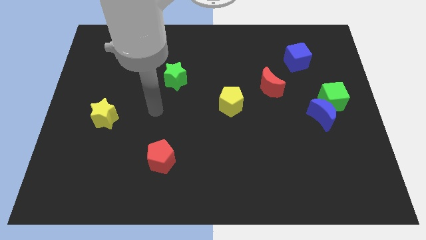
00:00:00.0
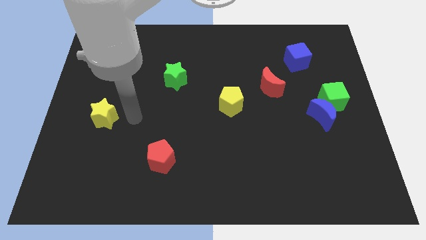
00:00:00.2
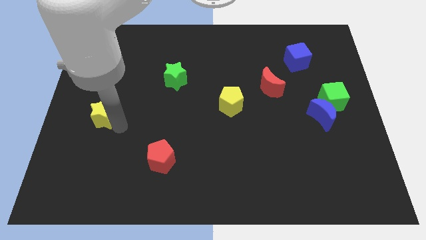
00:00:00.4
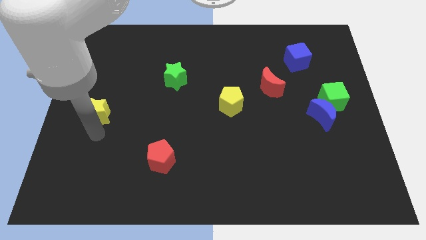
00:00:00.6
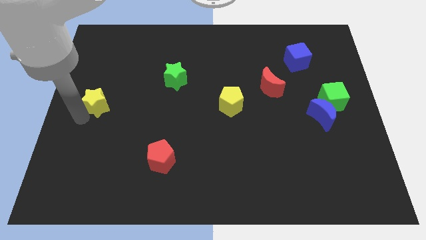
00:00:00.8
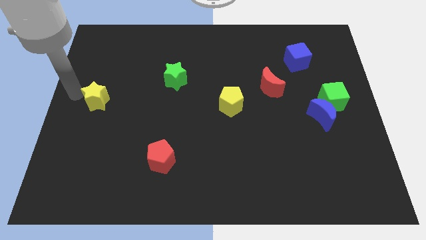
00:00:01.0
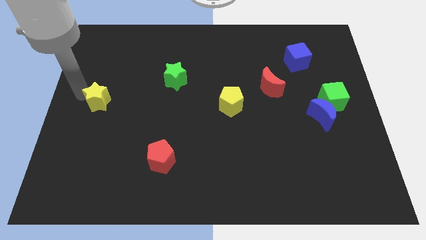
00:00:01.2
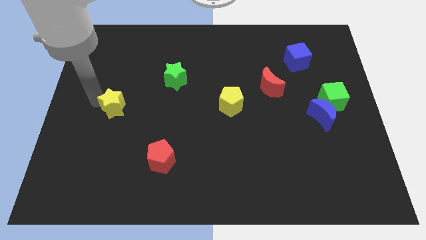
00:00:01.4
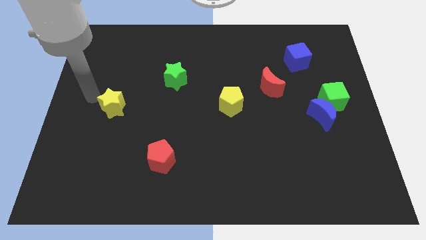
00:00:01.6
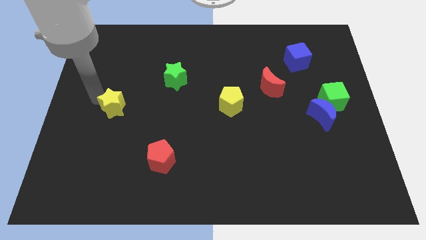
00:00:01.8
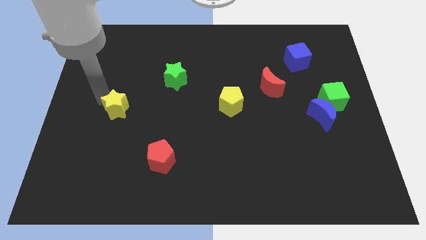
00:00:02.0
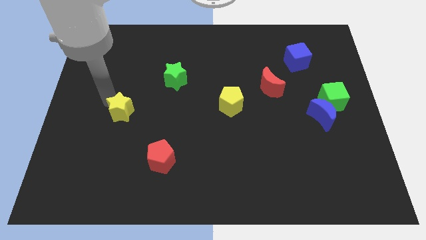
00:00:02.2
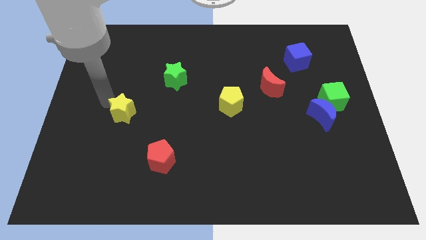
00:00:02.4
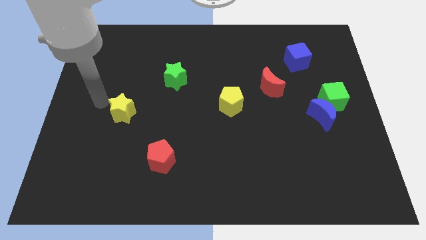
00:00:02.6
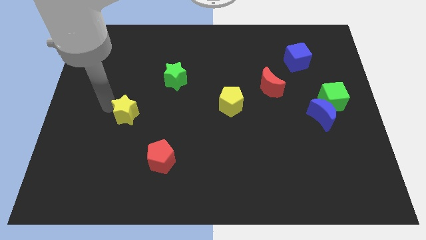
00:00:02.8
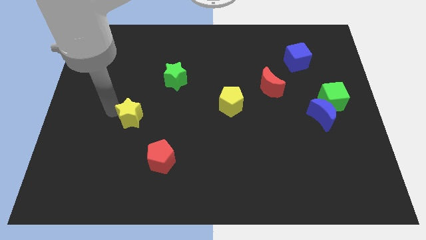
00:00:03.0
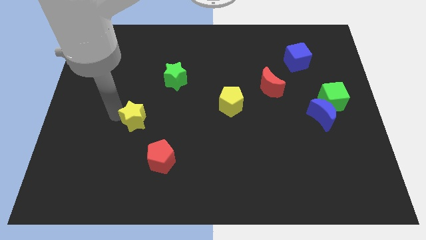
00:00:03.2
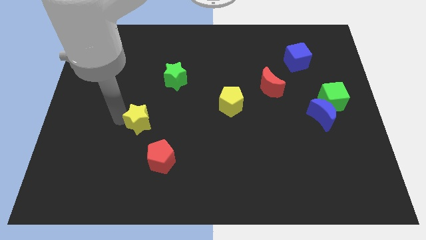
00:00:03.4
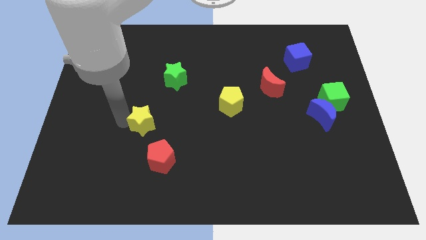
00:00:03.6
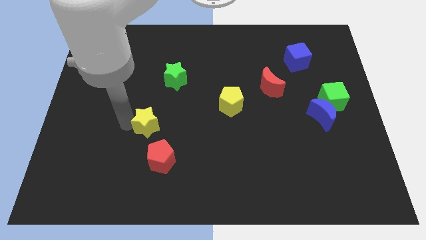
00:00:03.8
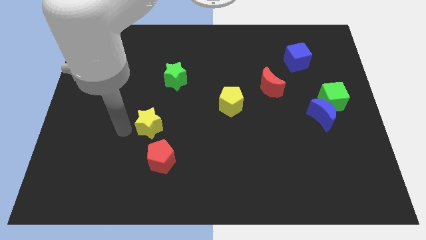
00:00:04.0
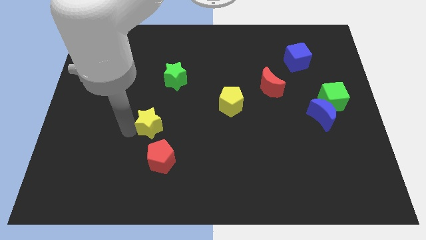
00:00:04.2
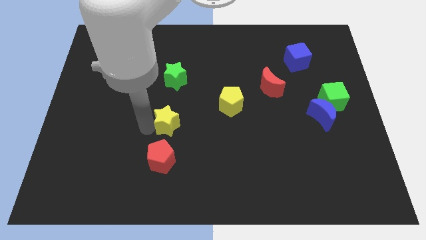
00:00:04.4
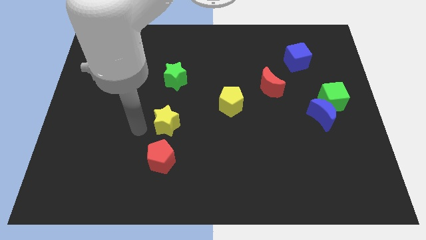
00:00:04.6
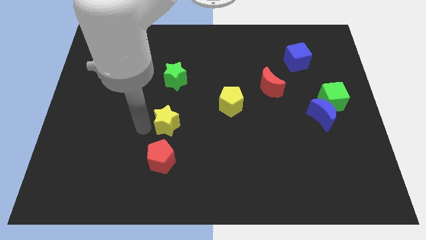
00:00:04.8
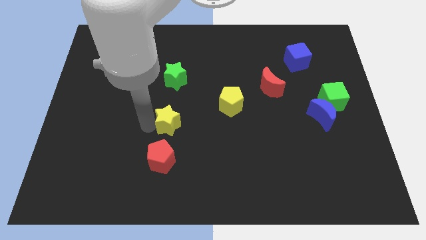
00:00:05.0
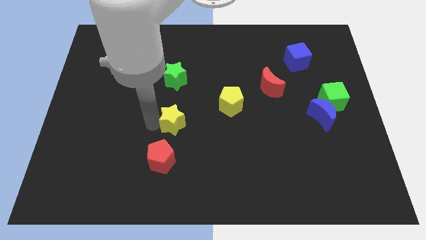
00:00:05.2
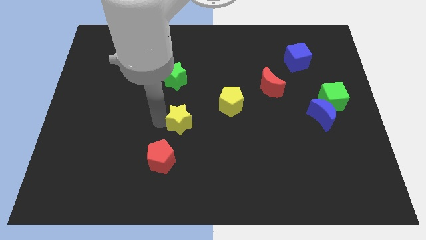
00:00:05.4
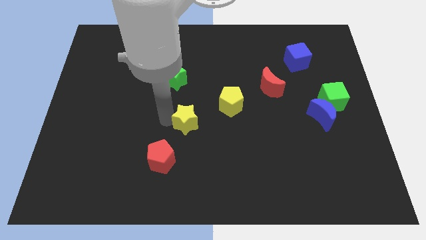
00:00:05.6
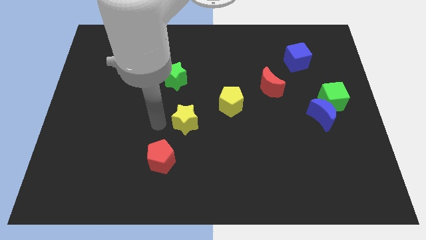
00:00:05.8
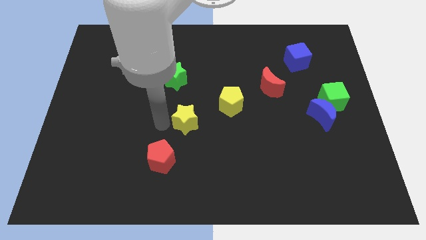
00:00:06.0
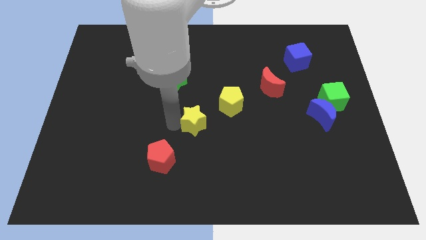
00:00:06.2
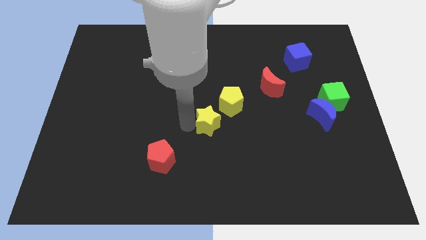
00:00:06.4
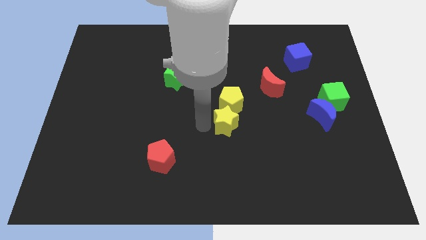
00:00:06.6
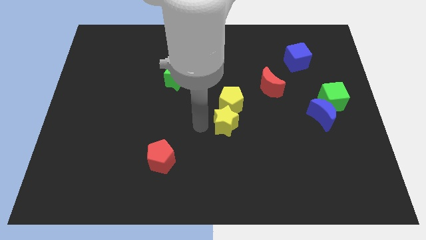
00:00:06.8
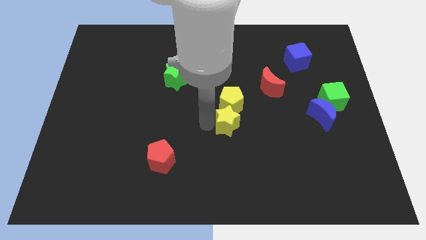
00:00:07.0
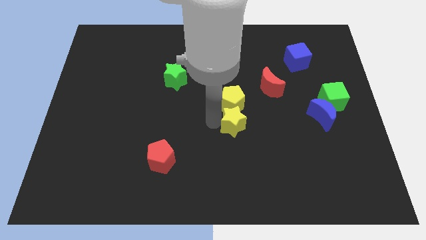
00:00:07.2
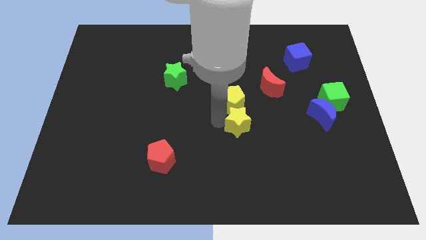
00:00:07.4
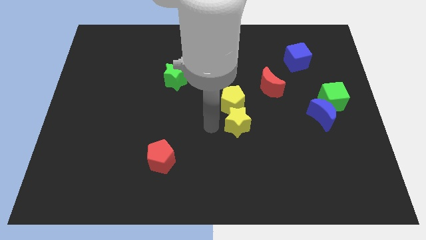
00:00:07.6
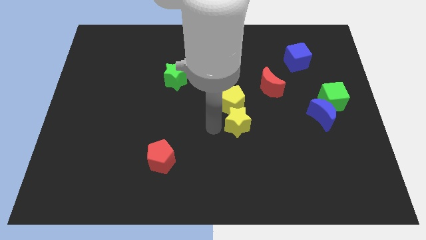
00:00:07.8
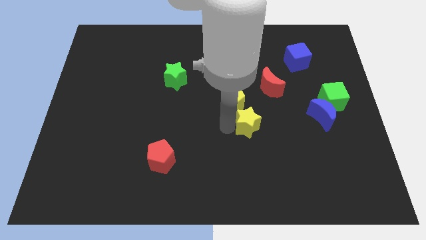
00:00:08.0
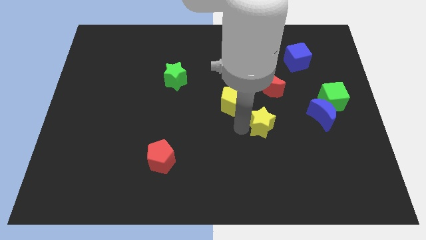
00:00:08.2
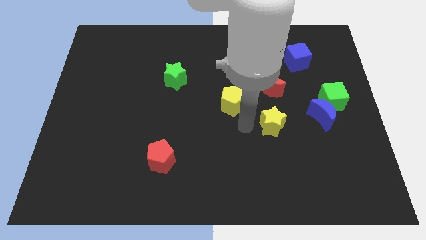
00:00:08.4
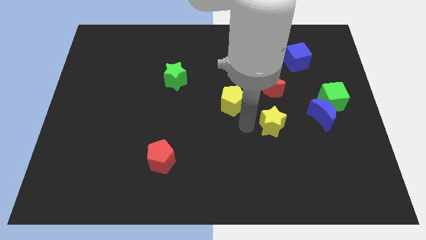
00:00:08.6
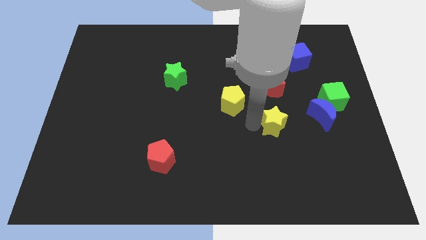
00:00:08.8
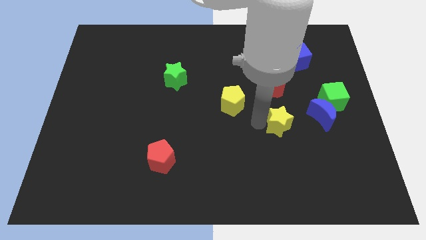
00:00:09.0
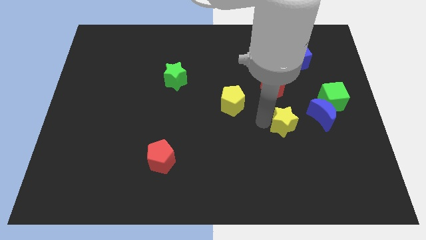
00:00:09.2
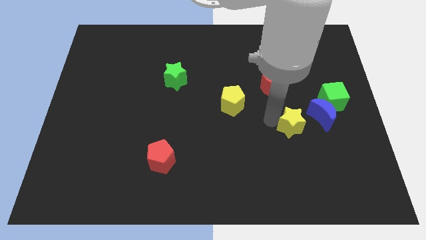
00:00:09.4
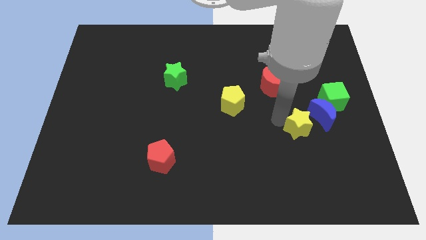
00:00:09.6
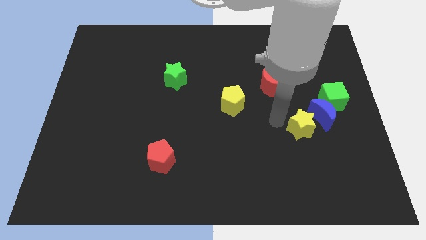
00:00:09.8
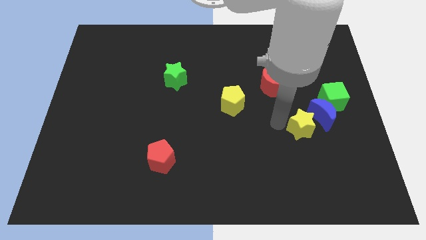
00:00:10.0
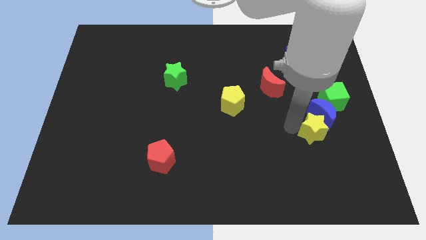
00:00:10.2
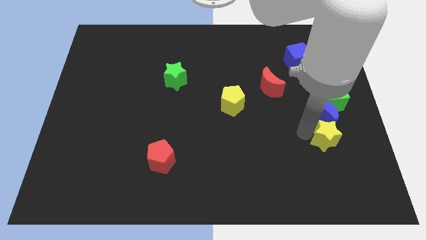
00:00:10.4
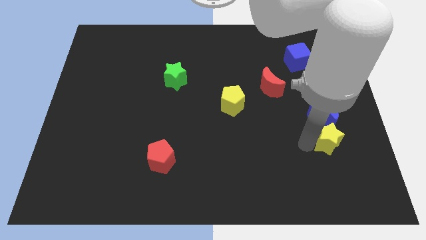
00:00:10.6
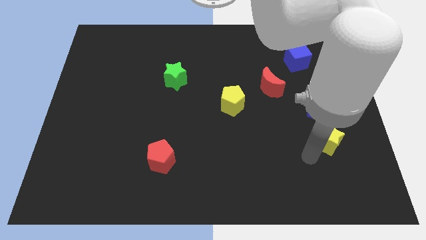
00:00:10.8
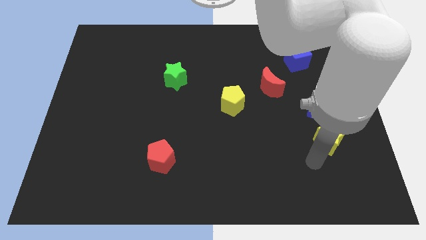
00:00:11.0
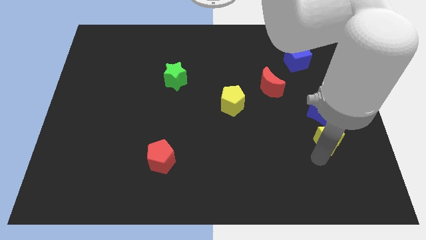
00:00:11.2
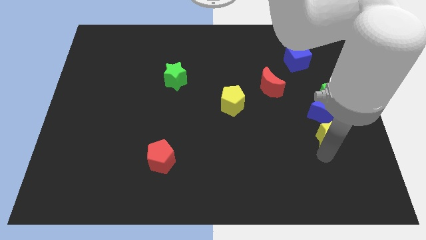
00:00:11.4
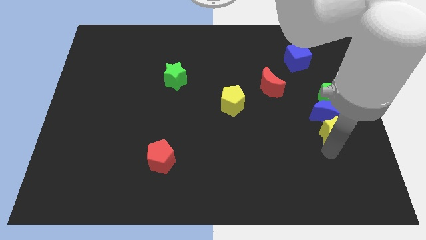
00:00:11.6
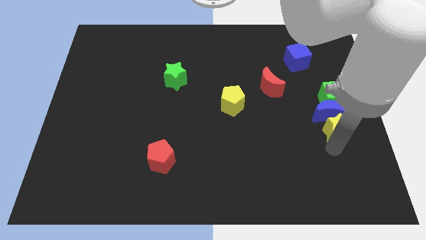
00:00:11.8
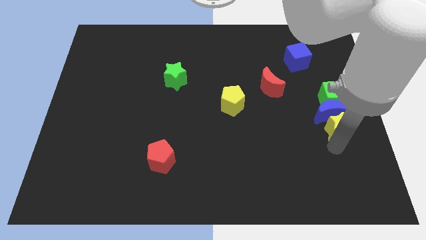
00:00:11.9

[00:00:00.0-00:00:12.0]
put the yellow star to the center right

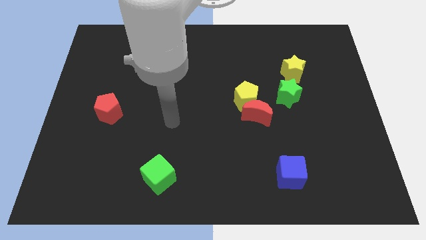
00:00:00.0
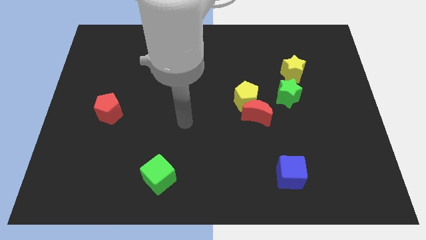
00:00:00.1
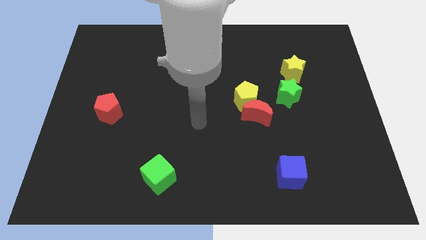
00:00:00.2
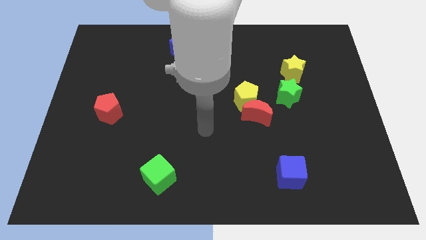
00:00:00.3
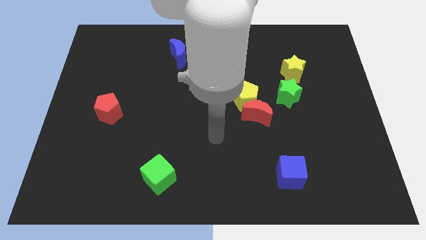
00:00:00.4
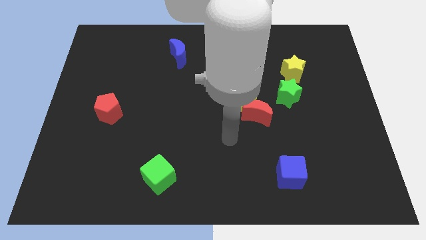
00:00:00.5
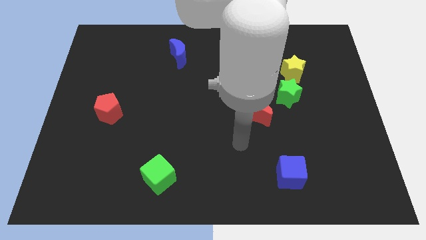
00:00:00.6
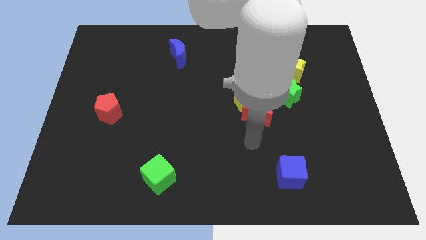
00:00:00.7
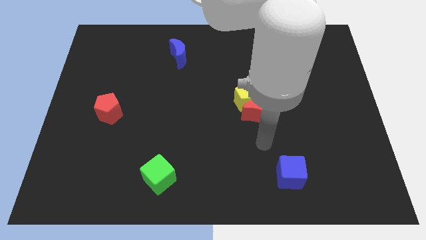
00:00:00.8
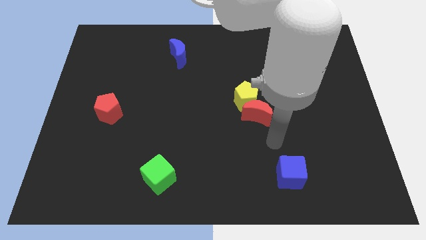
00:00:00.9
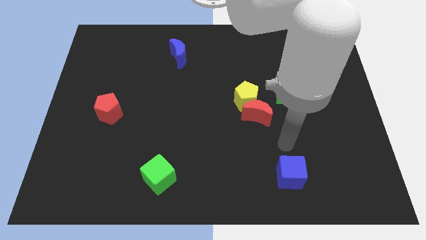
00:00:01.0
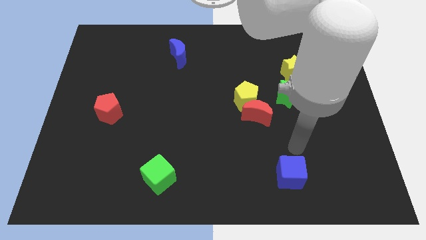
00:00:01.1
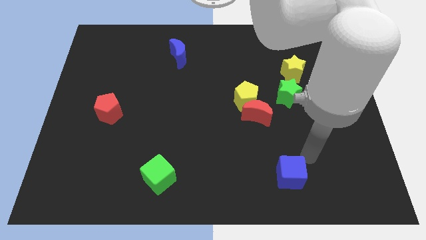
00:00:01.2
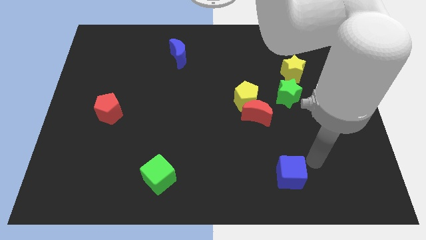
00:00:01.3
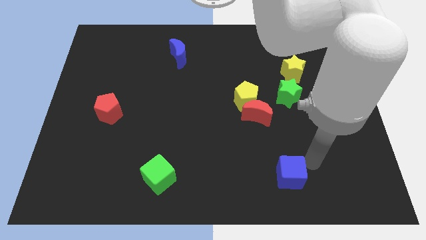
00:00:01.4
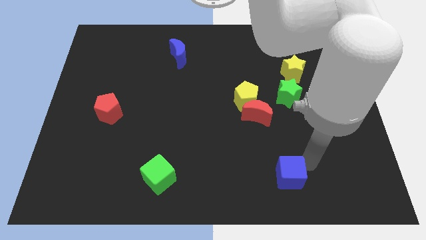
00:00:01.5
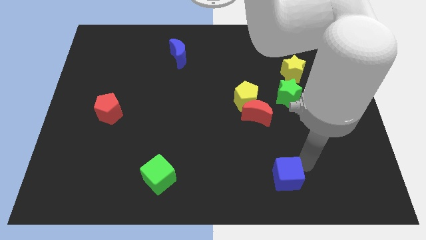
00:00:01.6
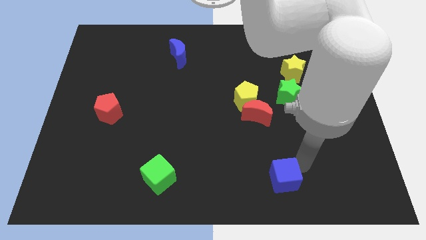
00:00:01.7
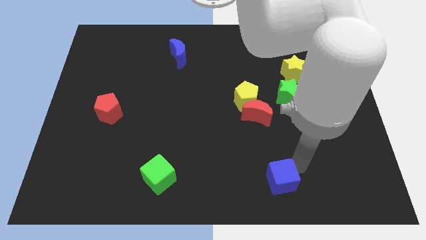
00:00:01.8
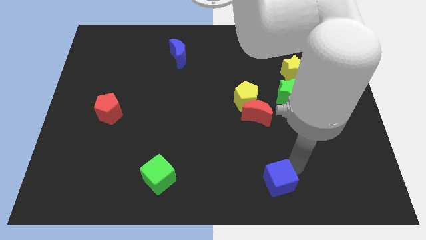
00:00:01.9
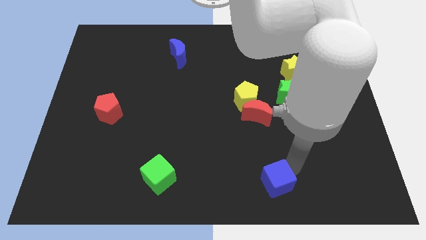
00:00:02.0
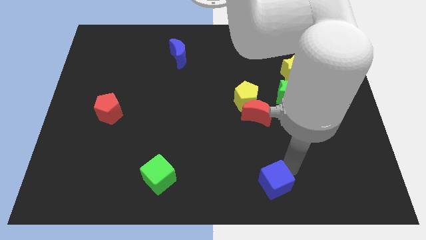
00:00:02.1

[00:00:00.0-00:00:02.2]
push the blue cube to the bottom
